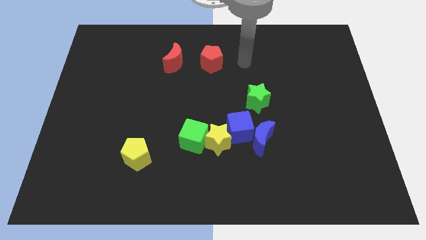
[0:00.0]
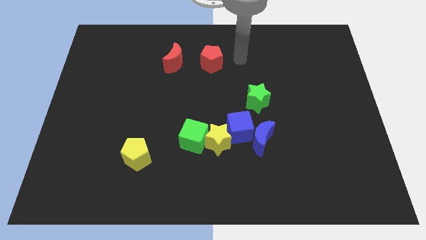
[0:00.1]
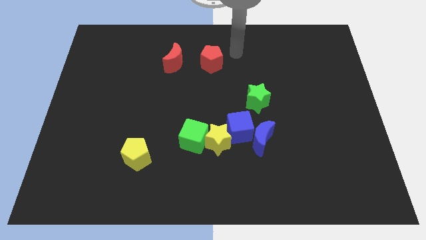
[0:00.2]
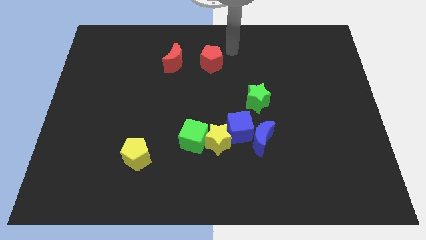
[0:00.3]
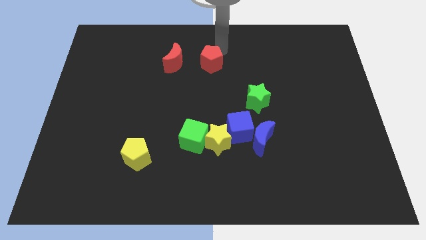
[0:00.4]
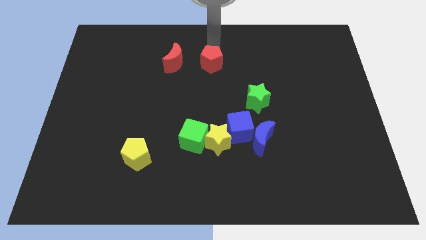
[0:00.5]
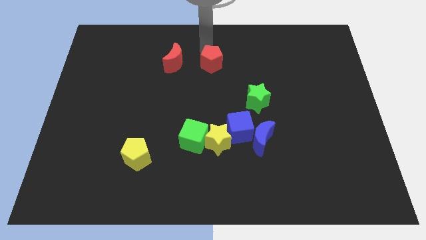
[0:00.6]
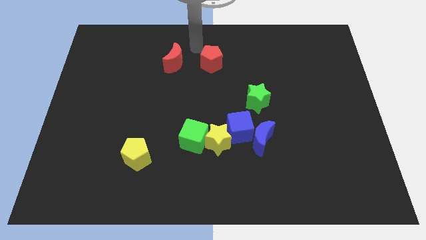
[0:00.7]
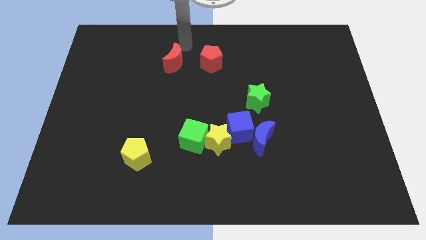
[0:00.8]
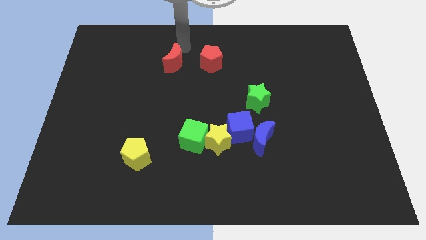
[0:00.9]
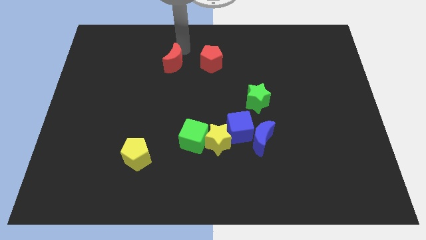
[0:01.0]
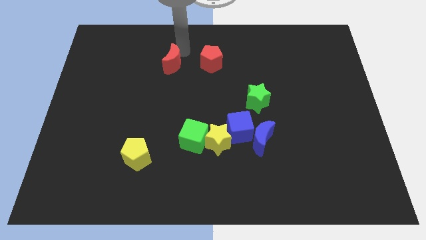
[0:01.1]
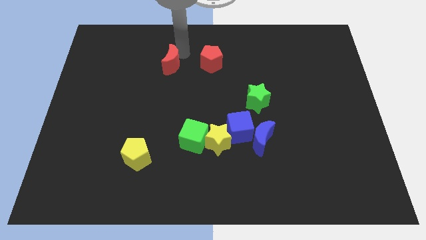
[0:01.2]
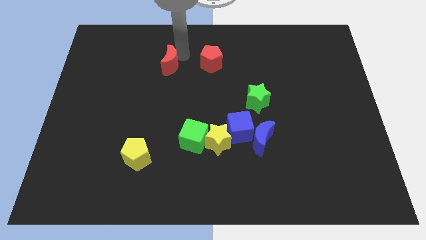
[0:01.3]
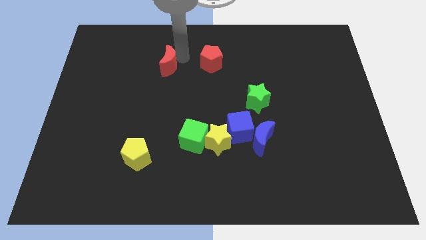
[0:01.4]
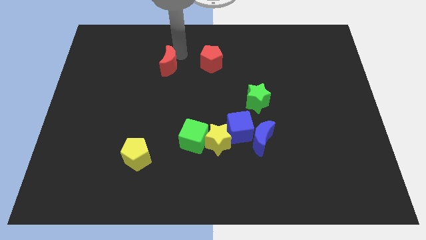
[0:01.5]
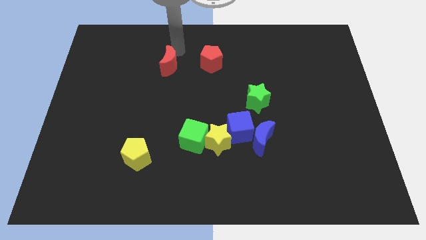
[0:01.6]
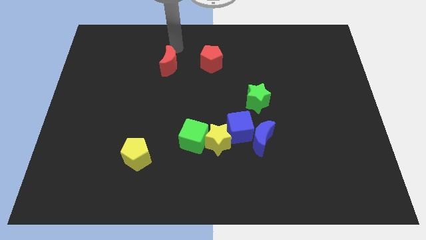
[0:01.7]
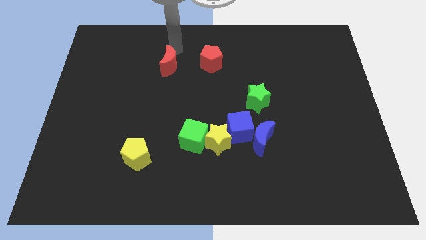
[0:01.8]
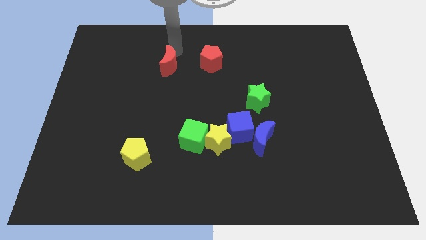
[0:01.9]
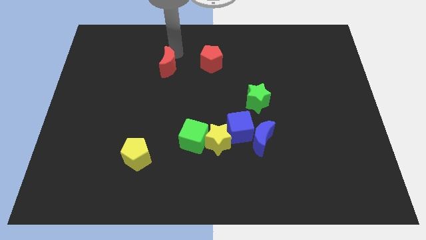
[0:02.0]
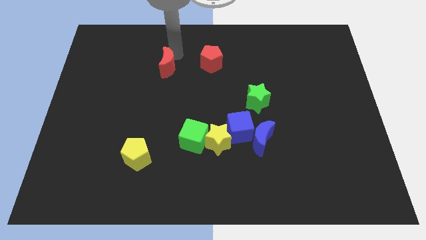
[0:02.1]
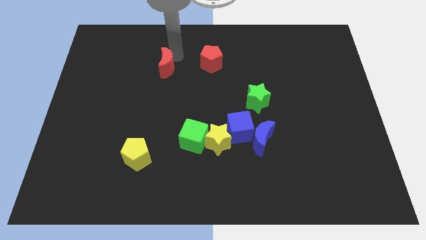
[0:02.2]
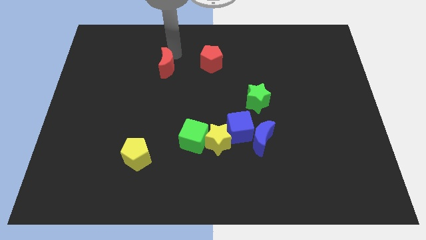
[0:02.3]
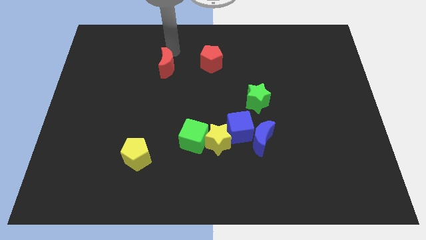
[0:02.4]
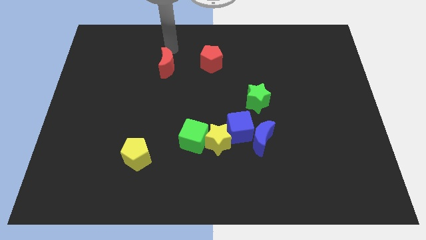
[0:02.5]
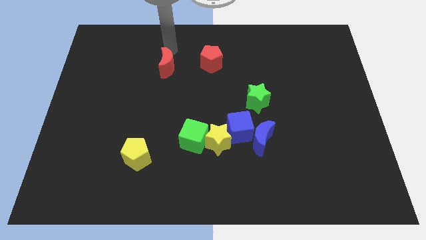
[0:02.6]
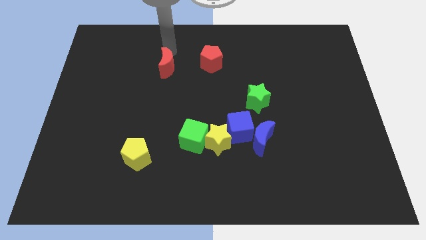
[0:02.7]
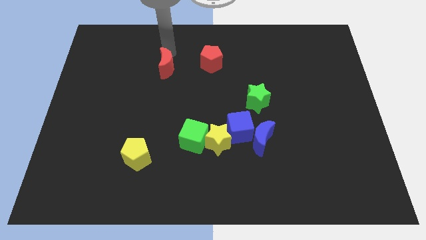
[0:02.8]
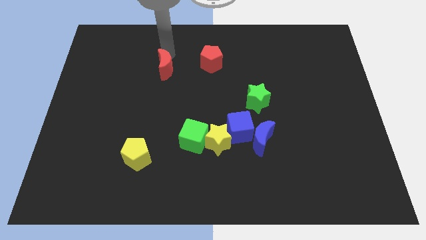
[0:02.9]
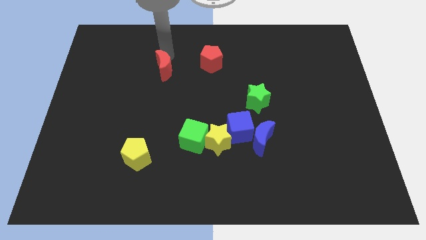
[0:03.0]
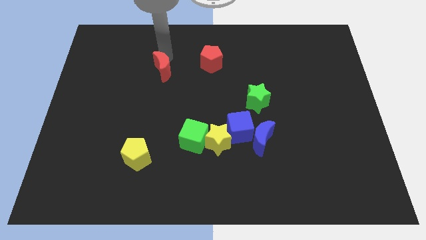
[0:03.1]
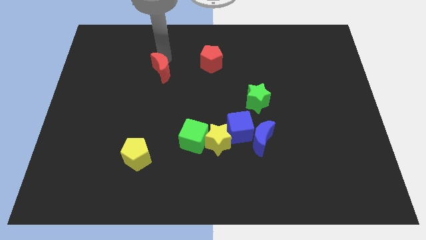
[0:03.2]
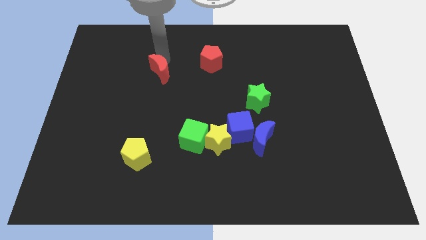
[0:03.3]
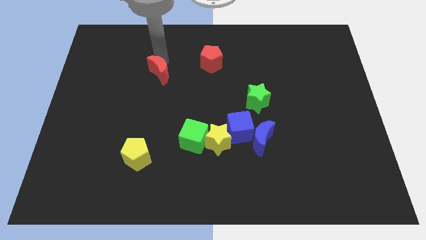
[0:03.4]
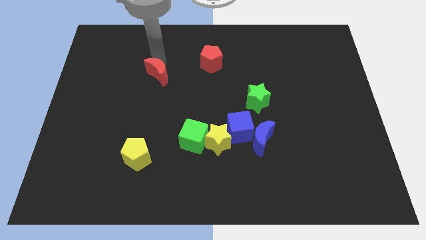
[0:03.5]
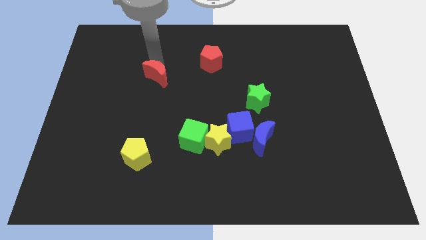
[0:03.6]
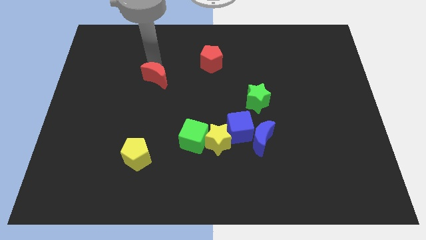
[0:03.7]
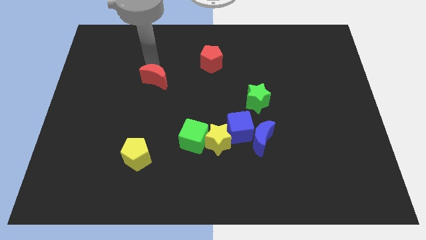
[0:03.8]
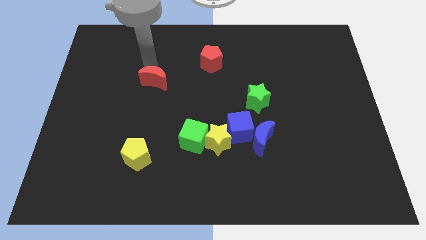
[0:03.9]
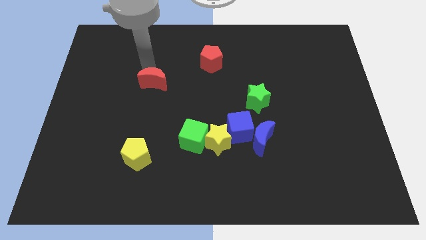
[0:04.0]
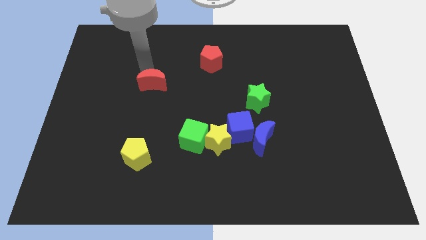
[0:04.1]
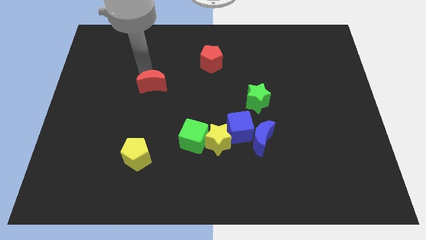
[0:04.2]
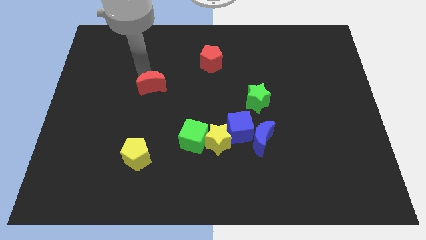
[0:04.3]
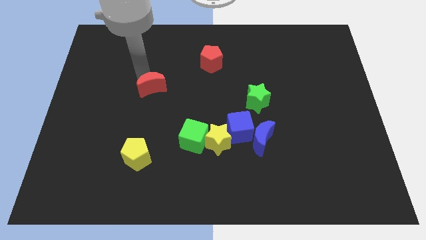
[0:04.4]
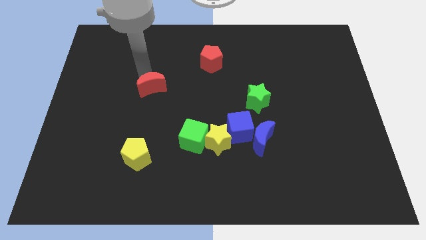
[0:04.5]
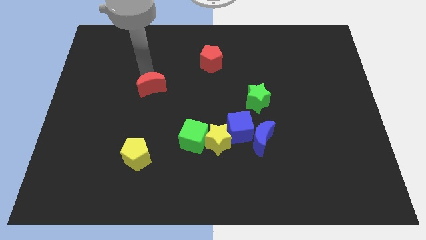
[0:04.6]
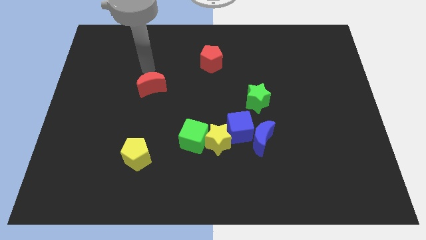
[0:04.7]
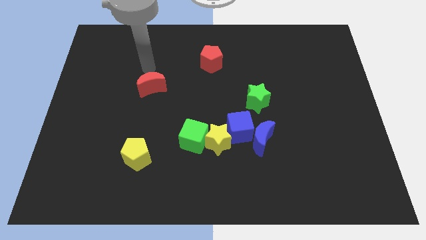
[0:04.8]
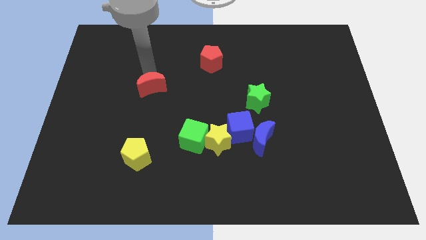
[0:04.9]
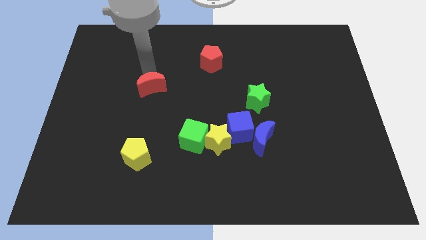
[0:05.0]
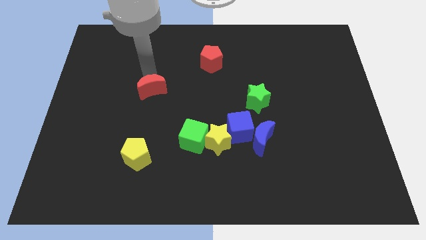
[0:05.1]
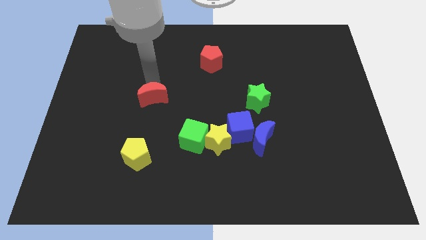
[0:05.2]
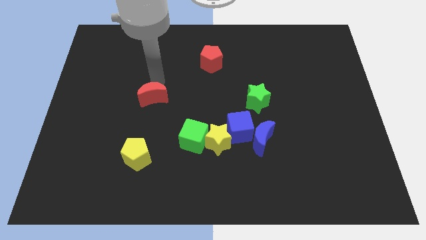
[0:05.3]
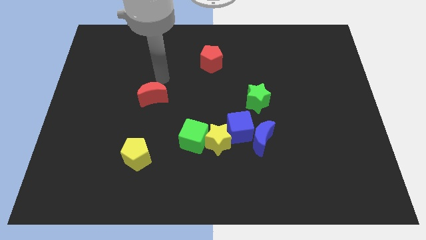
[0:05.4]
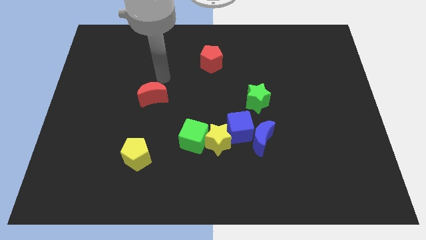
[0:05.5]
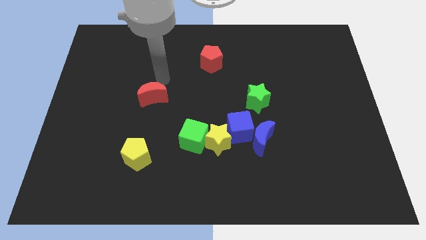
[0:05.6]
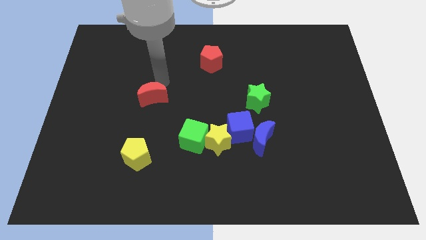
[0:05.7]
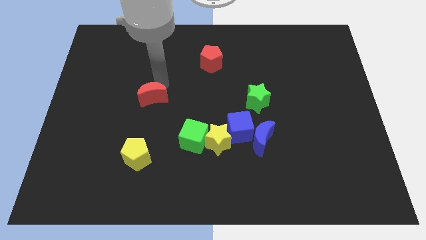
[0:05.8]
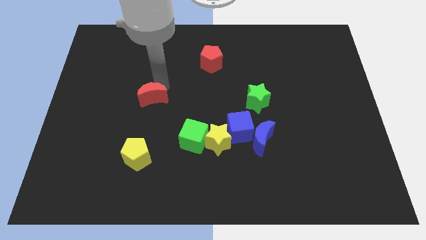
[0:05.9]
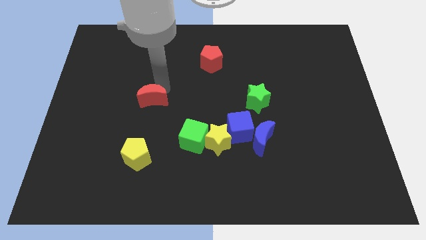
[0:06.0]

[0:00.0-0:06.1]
push the red moon above the yellow pentagon
